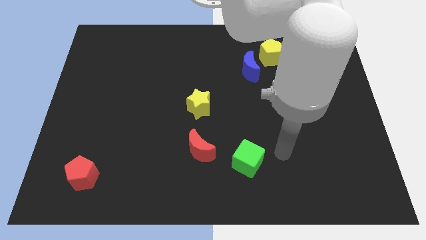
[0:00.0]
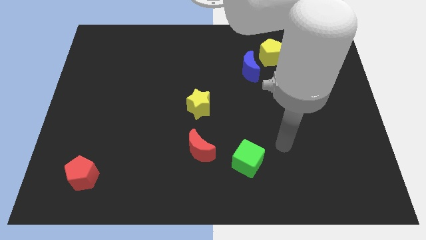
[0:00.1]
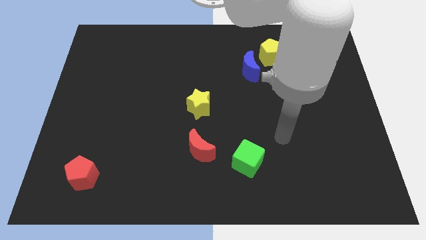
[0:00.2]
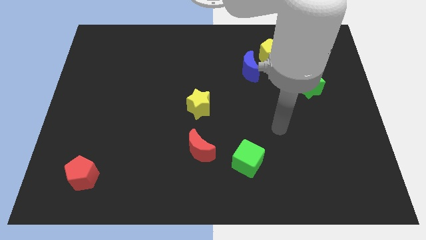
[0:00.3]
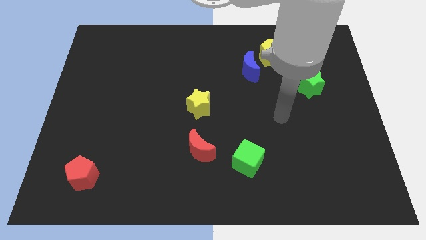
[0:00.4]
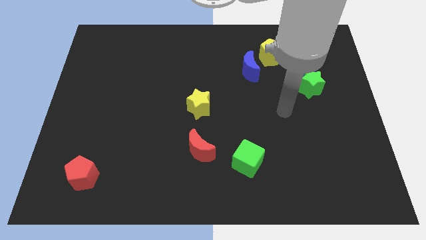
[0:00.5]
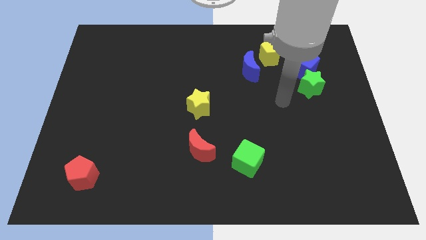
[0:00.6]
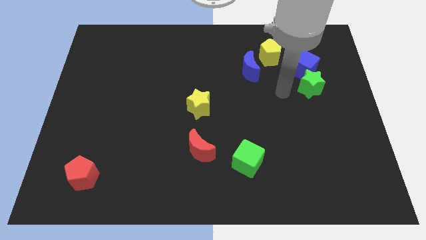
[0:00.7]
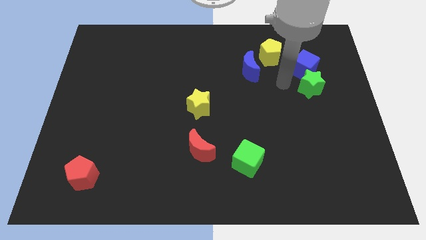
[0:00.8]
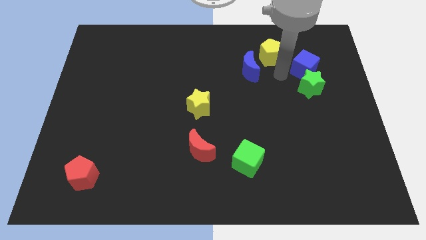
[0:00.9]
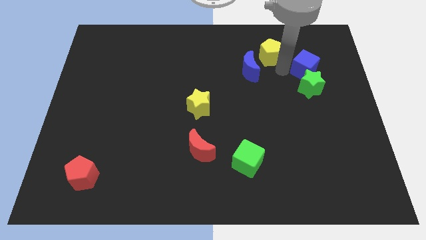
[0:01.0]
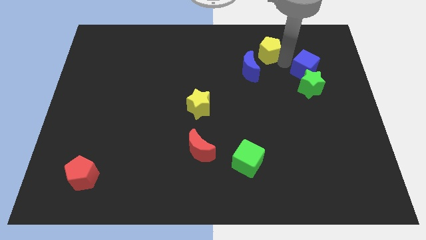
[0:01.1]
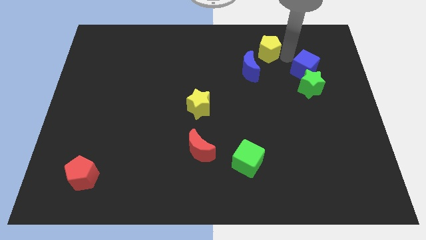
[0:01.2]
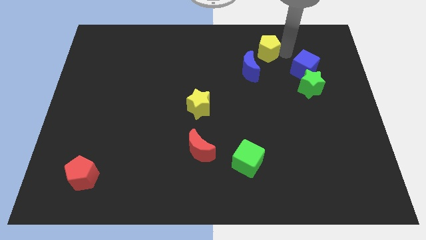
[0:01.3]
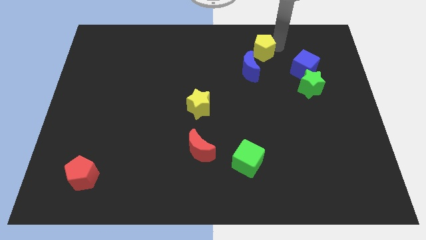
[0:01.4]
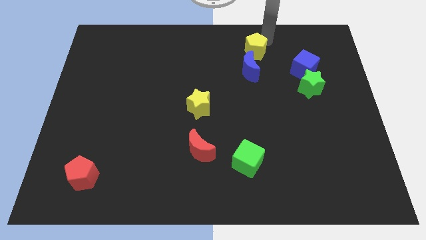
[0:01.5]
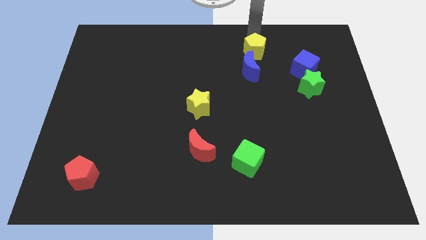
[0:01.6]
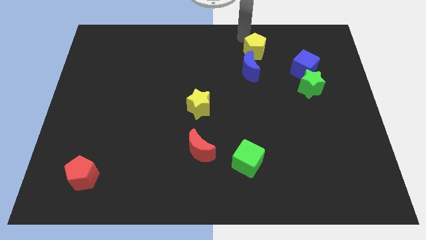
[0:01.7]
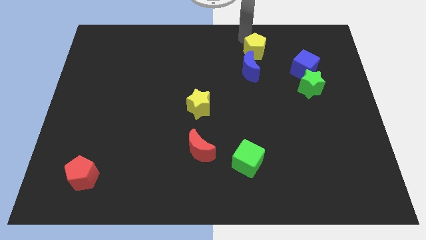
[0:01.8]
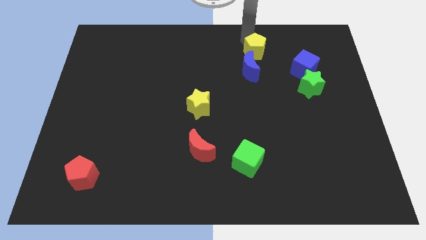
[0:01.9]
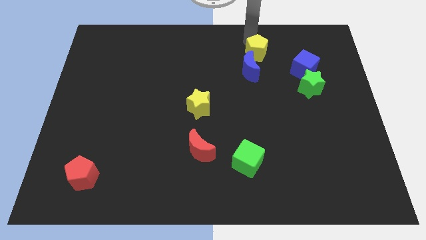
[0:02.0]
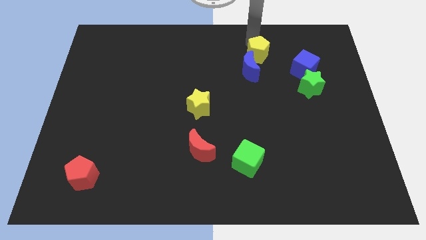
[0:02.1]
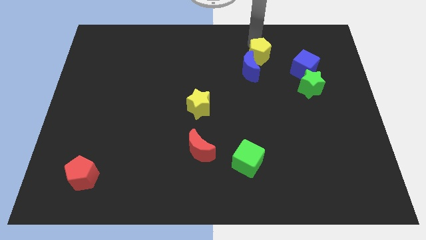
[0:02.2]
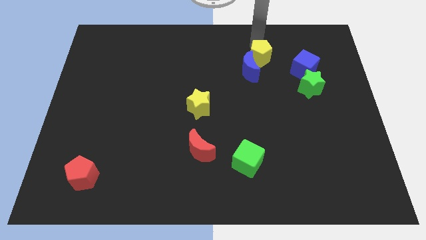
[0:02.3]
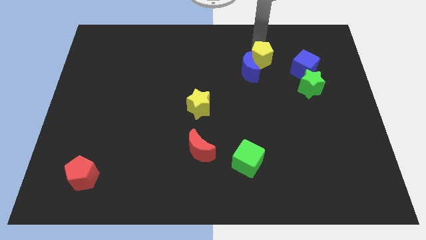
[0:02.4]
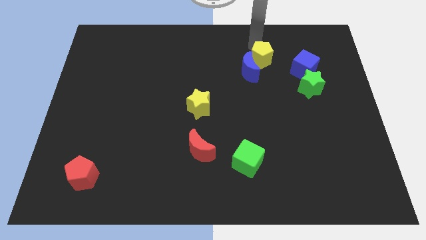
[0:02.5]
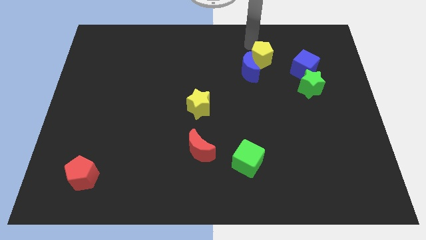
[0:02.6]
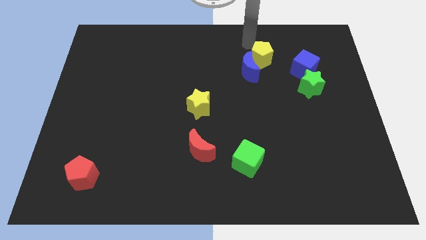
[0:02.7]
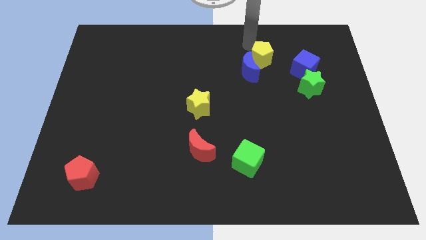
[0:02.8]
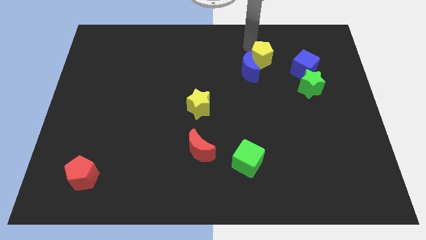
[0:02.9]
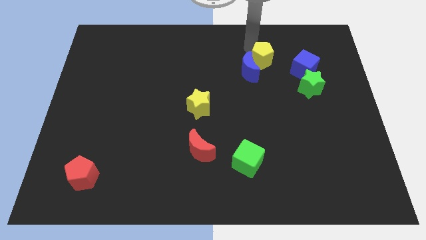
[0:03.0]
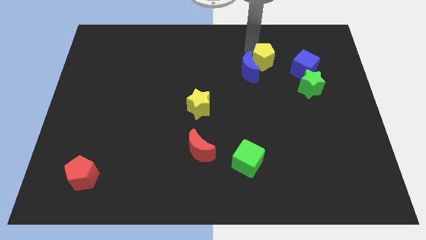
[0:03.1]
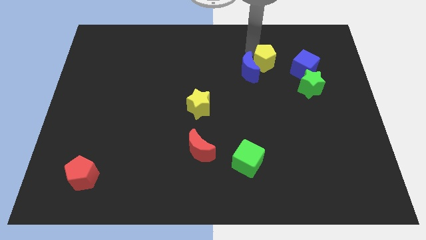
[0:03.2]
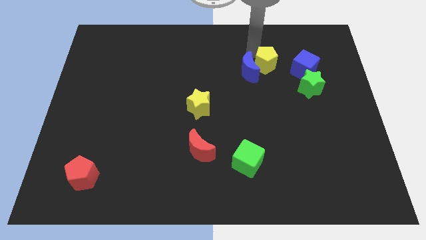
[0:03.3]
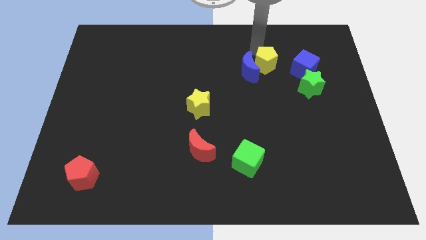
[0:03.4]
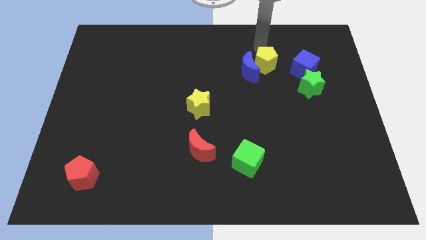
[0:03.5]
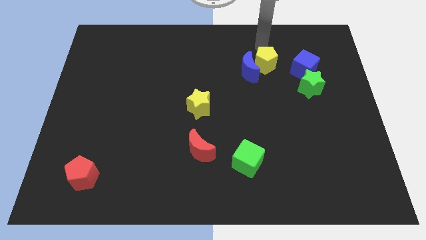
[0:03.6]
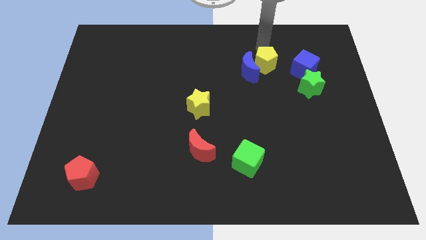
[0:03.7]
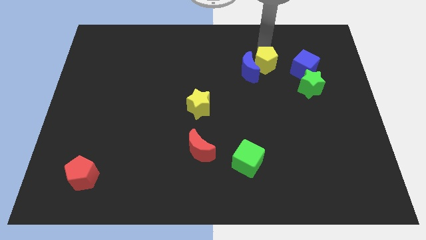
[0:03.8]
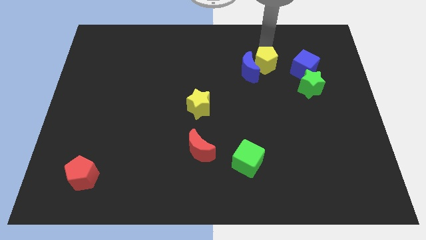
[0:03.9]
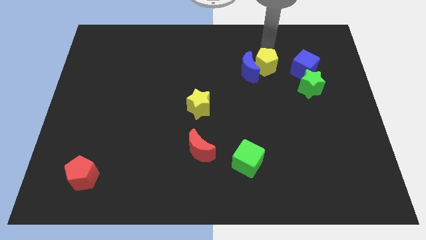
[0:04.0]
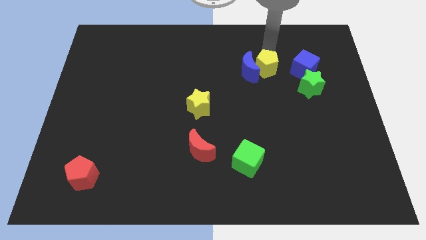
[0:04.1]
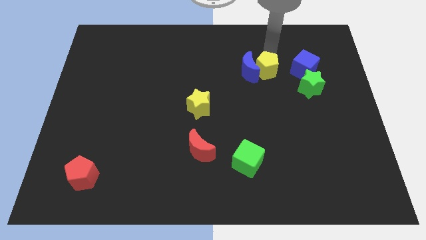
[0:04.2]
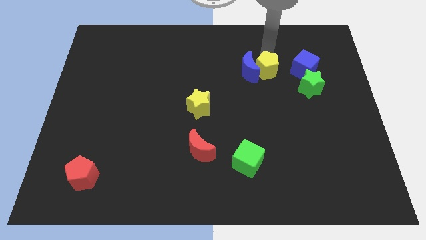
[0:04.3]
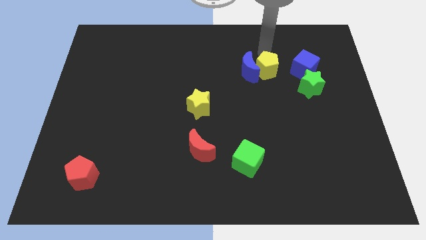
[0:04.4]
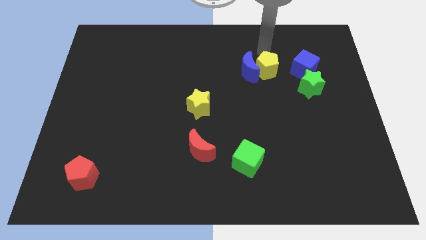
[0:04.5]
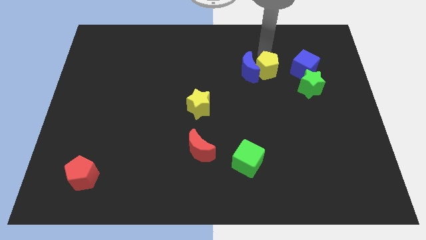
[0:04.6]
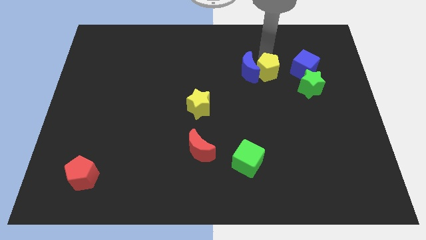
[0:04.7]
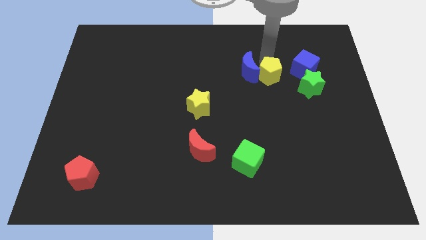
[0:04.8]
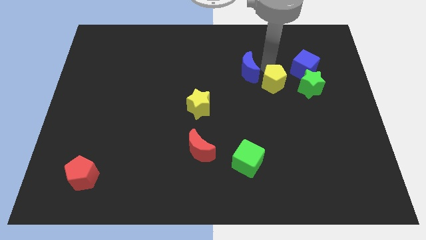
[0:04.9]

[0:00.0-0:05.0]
move the yellow pentagon down slightly

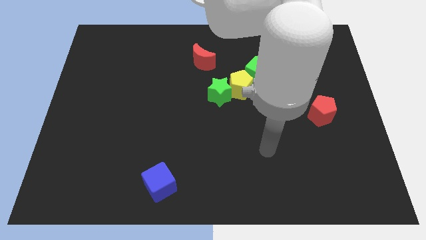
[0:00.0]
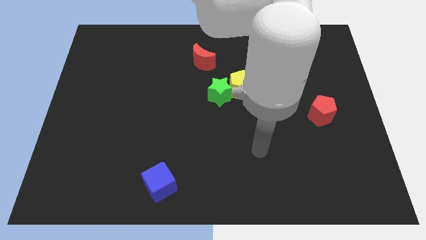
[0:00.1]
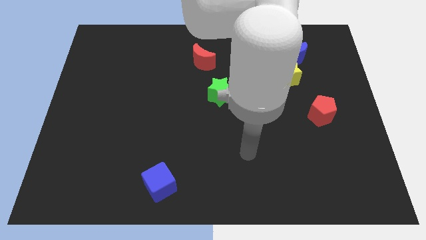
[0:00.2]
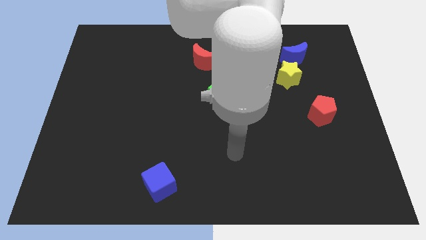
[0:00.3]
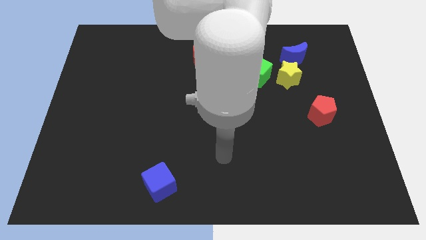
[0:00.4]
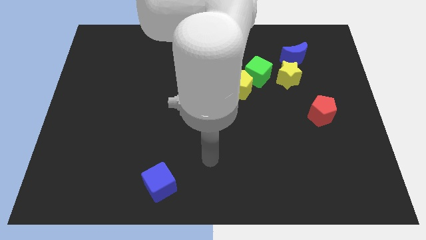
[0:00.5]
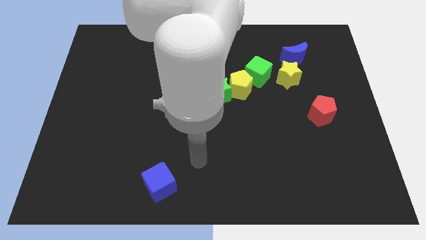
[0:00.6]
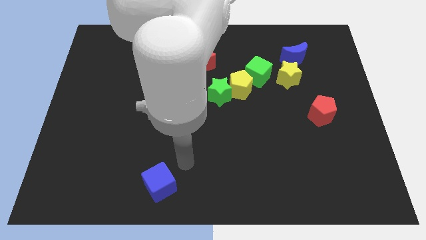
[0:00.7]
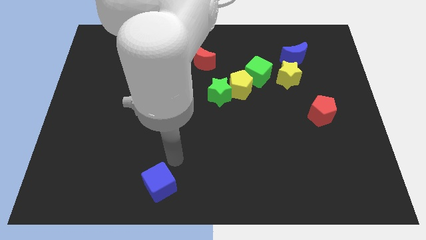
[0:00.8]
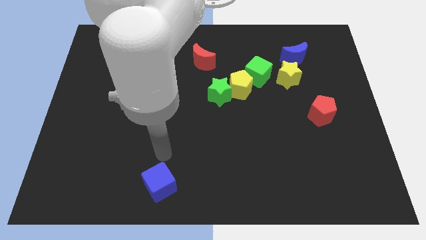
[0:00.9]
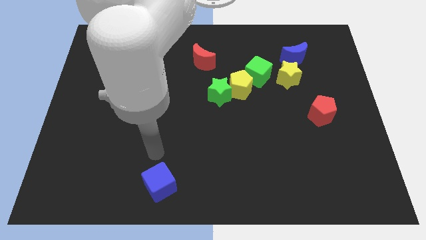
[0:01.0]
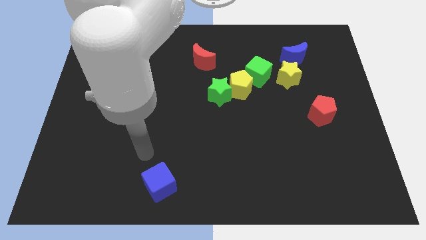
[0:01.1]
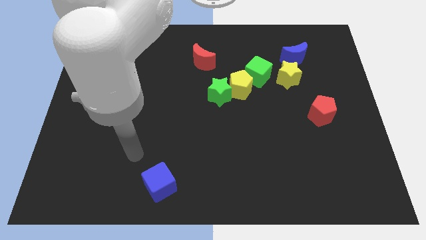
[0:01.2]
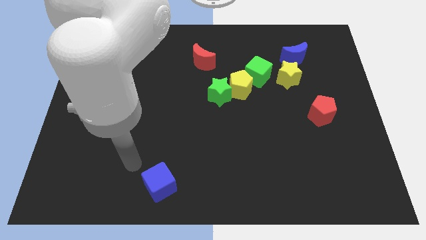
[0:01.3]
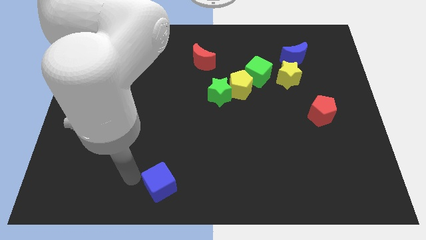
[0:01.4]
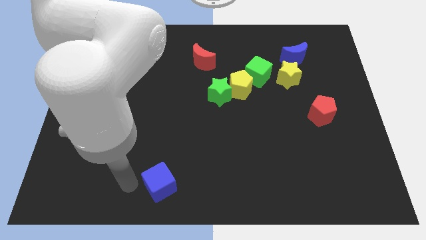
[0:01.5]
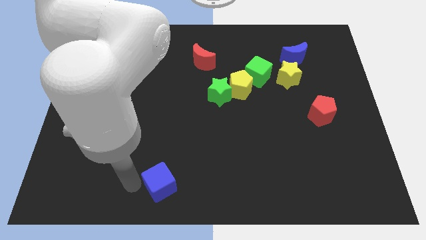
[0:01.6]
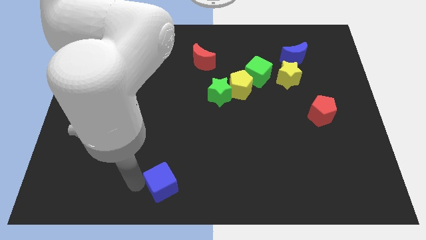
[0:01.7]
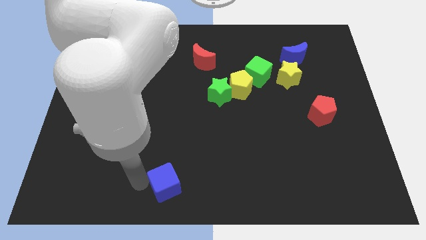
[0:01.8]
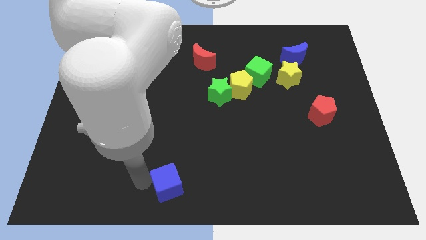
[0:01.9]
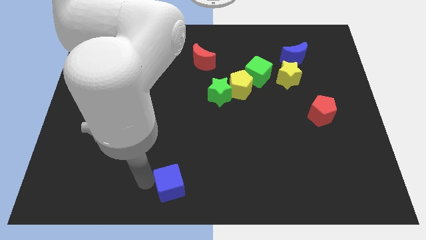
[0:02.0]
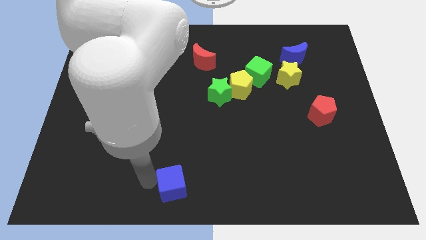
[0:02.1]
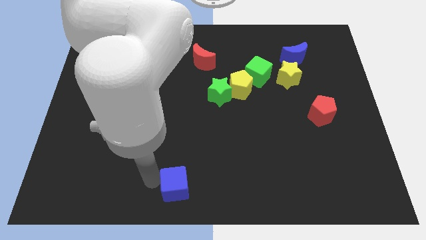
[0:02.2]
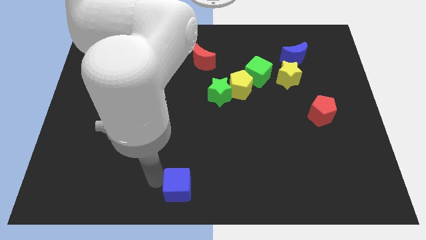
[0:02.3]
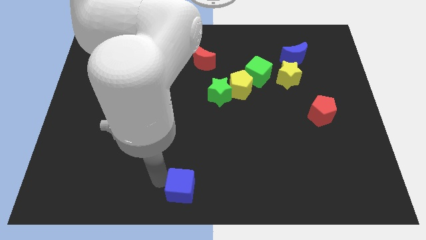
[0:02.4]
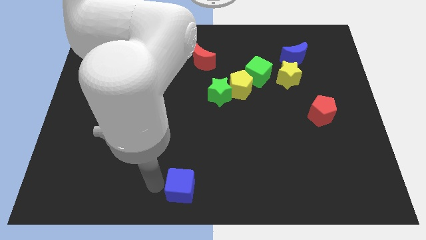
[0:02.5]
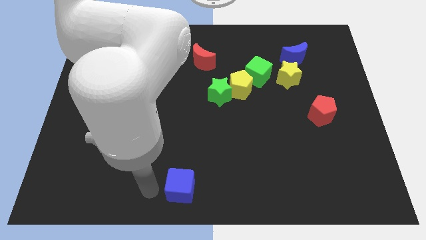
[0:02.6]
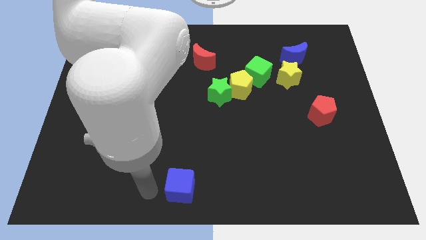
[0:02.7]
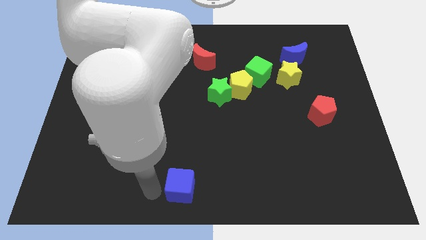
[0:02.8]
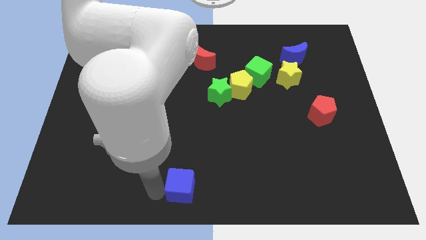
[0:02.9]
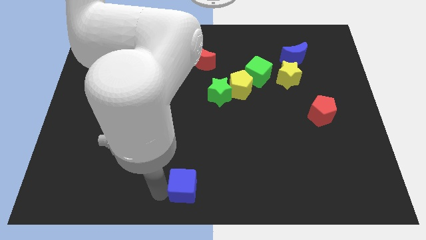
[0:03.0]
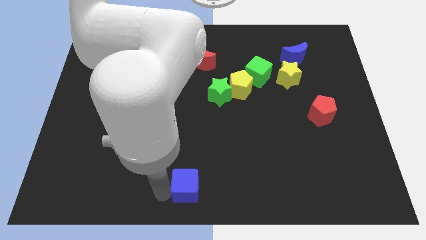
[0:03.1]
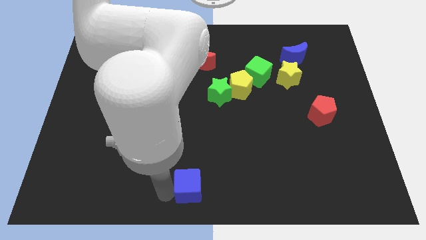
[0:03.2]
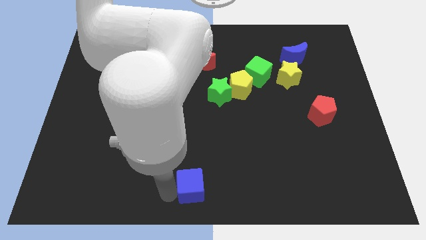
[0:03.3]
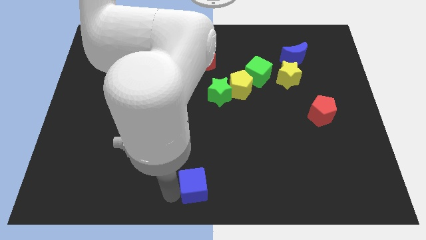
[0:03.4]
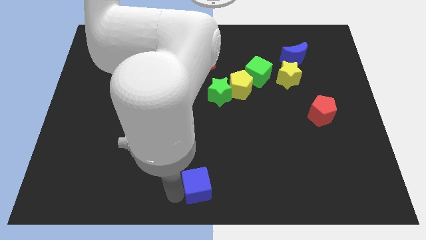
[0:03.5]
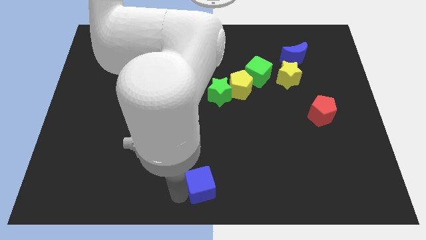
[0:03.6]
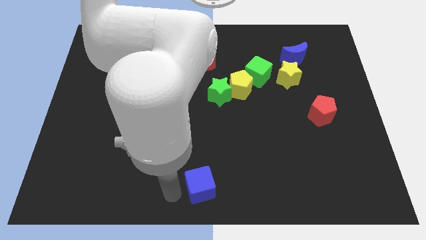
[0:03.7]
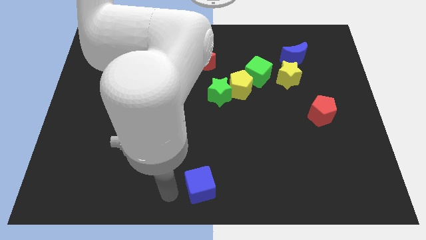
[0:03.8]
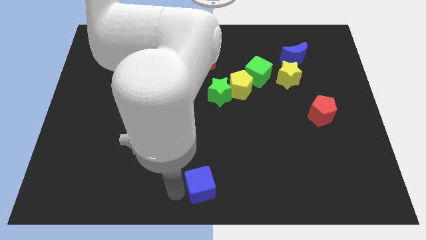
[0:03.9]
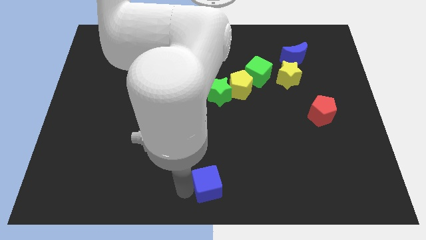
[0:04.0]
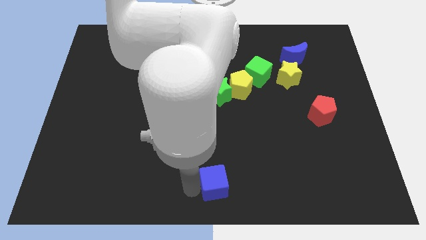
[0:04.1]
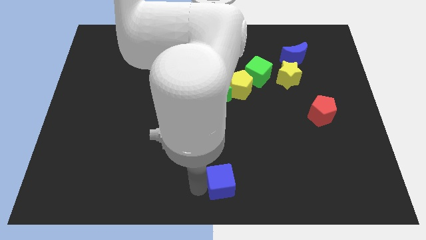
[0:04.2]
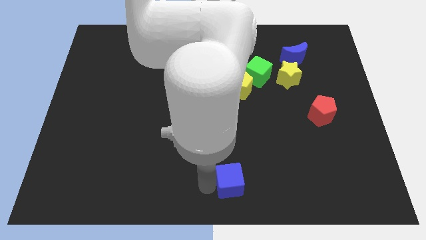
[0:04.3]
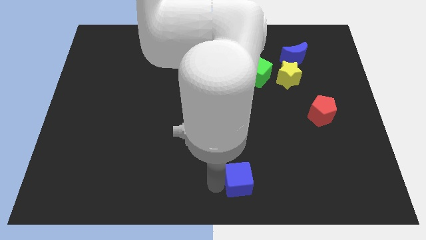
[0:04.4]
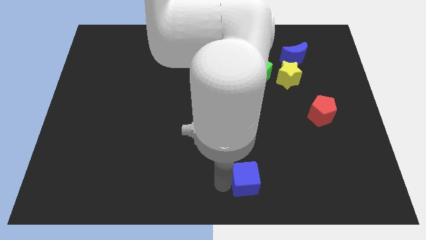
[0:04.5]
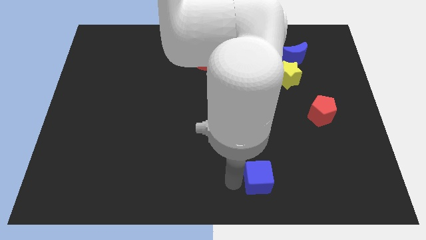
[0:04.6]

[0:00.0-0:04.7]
move the blue cube right
